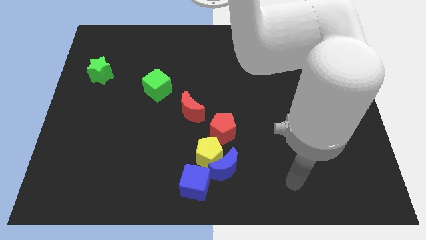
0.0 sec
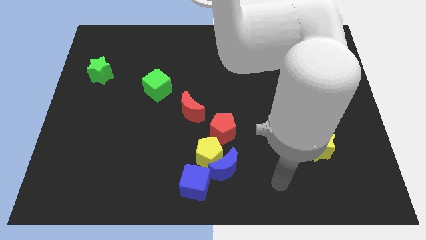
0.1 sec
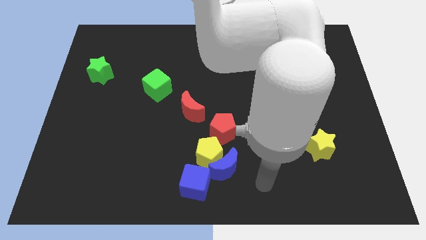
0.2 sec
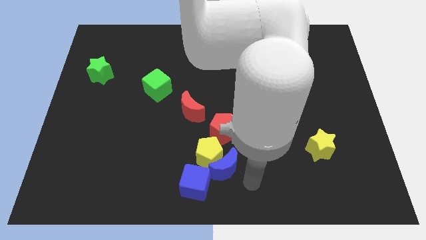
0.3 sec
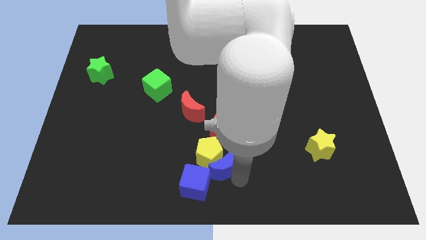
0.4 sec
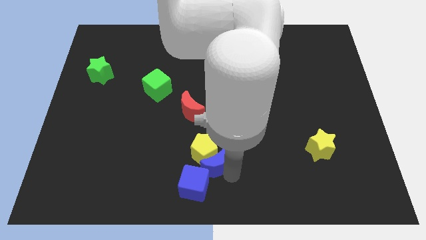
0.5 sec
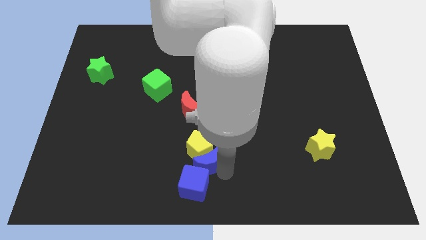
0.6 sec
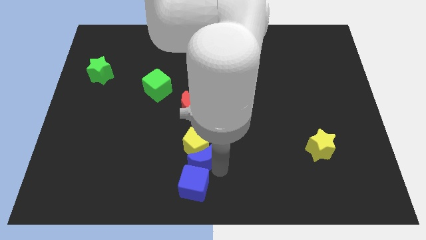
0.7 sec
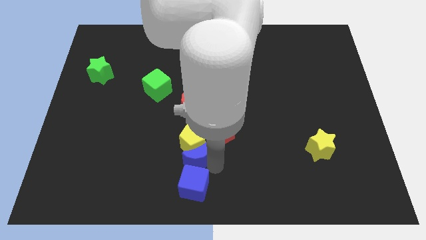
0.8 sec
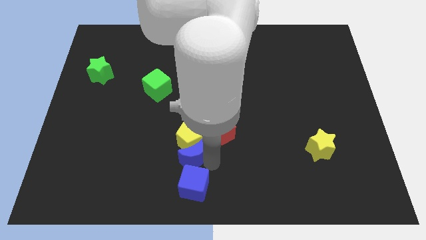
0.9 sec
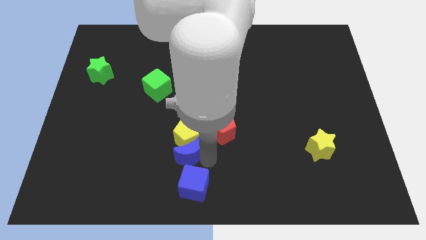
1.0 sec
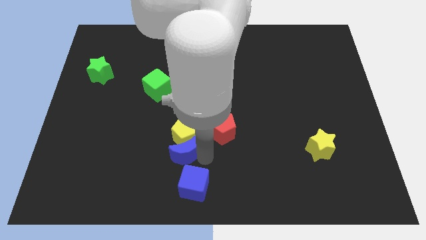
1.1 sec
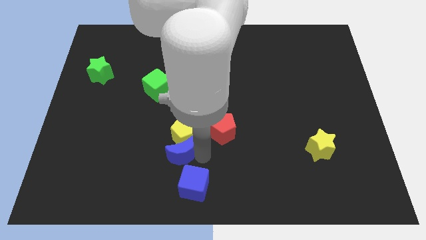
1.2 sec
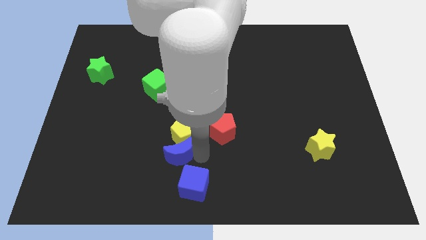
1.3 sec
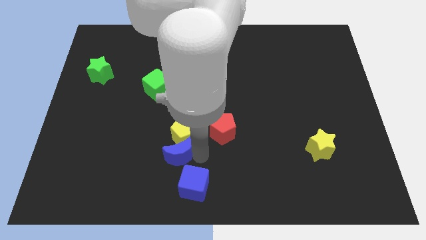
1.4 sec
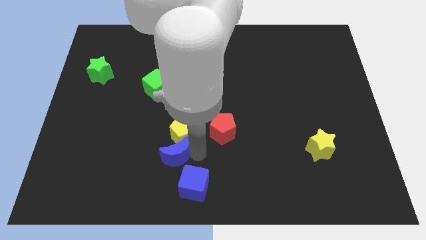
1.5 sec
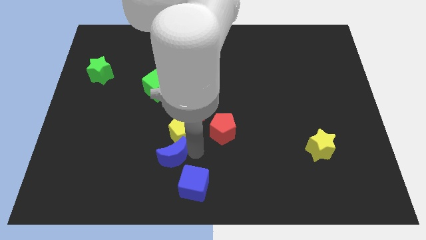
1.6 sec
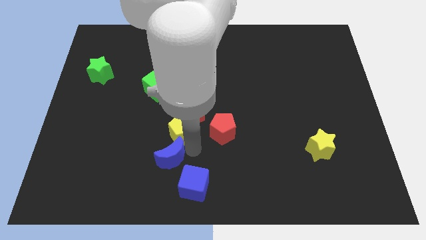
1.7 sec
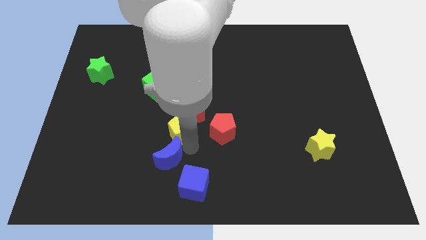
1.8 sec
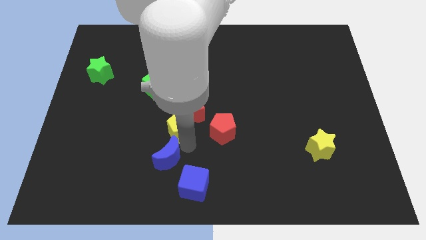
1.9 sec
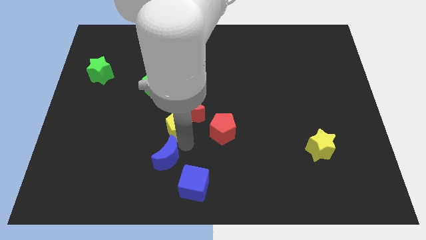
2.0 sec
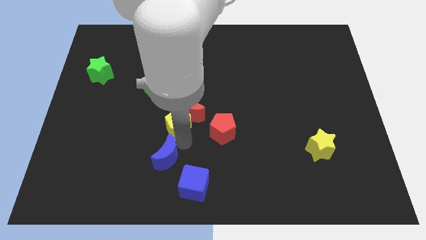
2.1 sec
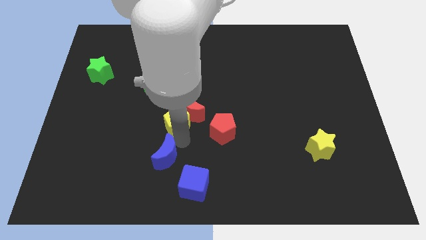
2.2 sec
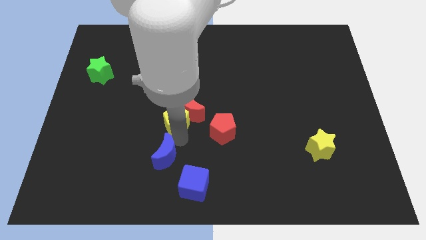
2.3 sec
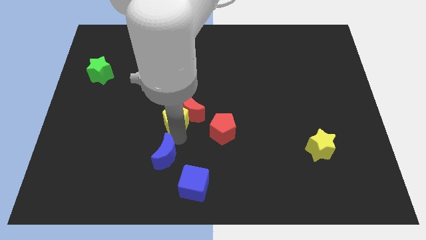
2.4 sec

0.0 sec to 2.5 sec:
move the yellow pentagon away from the group of blocks

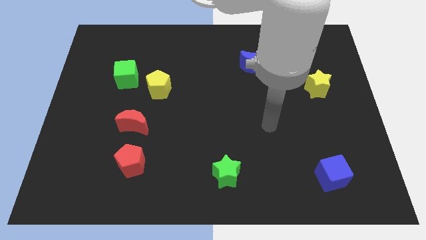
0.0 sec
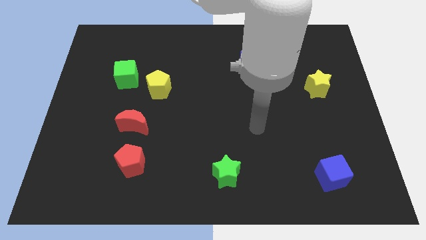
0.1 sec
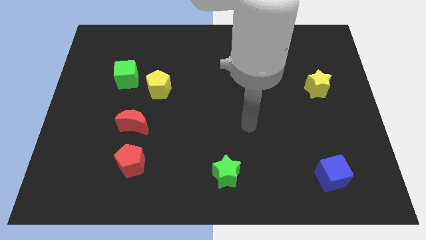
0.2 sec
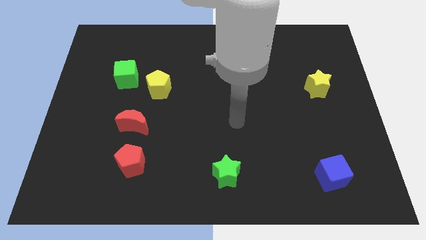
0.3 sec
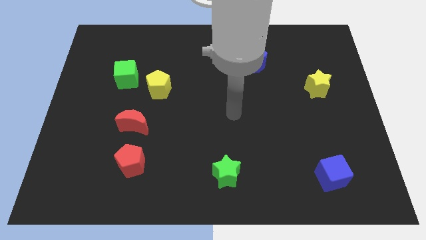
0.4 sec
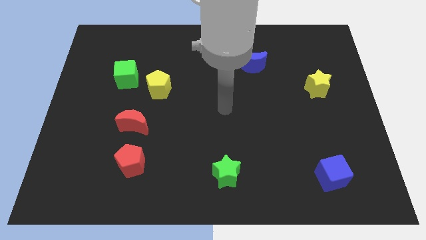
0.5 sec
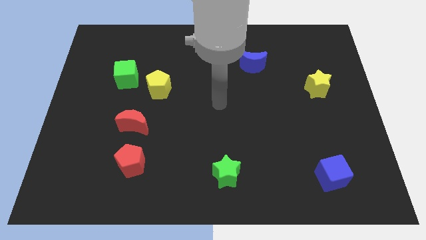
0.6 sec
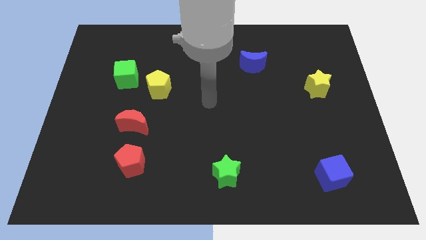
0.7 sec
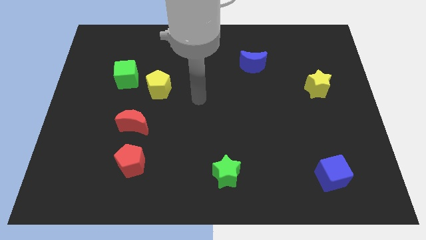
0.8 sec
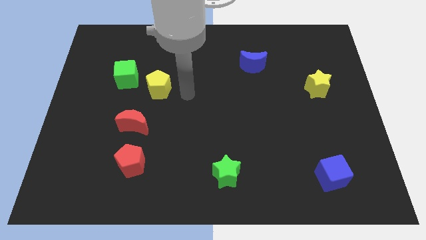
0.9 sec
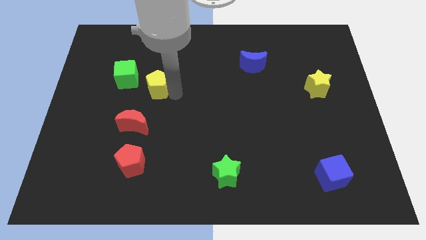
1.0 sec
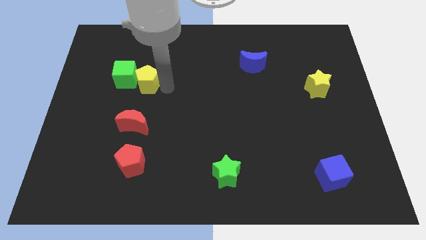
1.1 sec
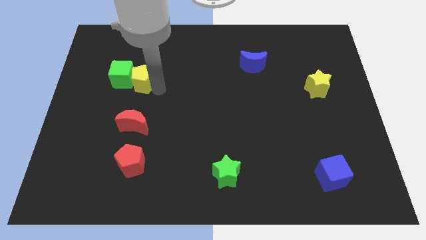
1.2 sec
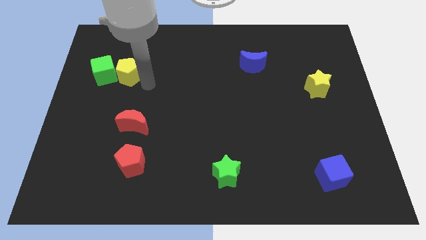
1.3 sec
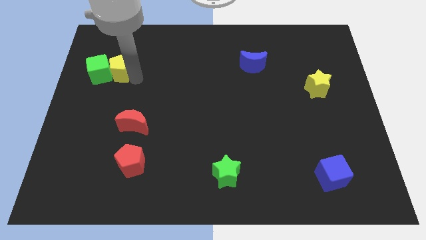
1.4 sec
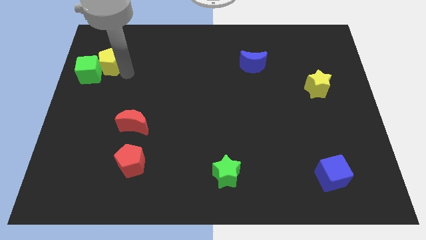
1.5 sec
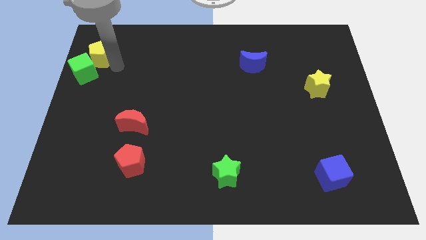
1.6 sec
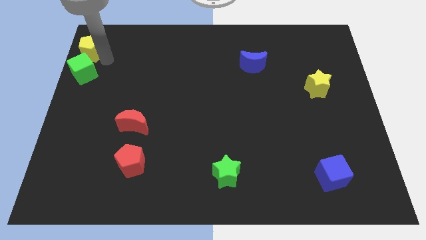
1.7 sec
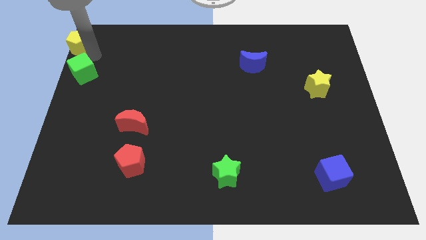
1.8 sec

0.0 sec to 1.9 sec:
separate the green cube from the yellow pentagon

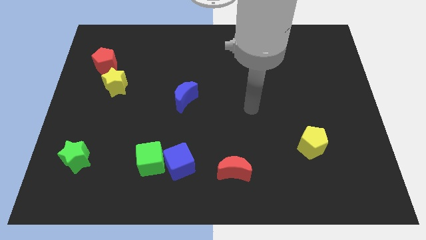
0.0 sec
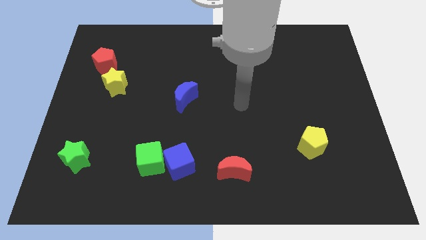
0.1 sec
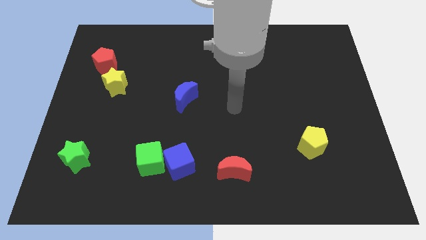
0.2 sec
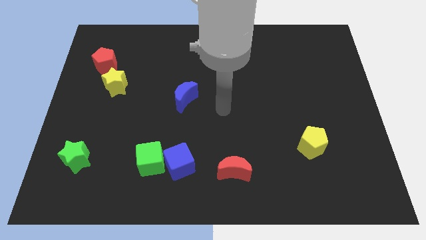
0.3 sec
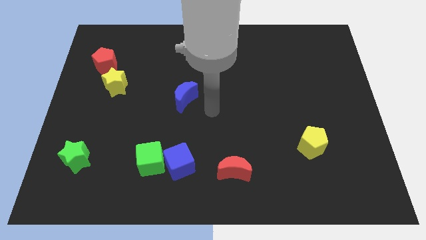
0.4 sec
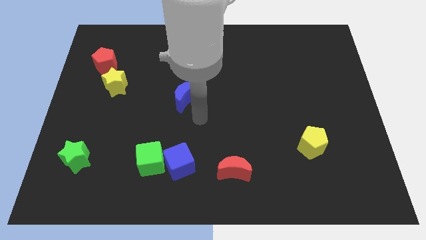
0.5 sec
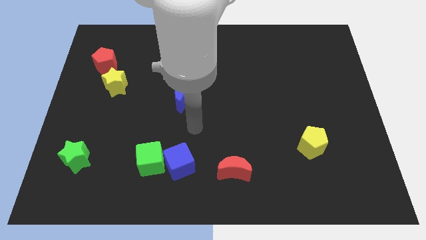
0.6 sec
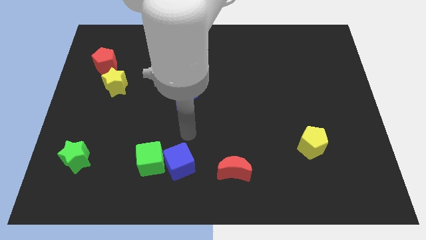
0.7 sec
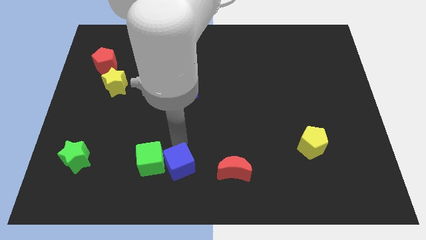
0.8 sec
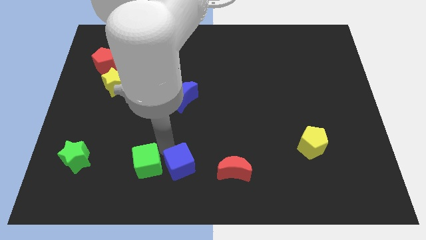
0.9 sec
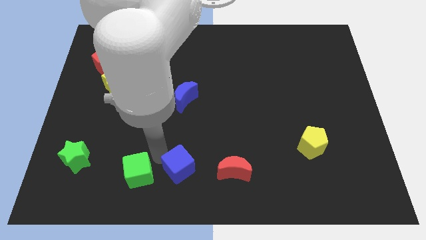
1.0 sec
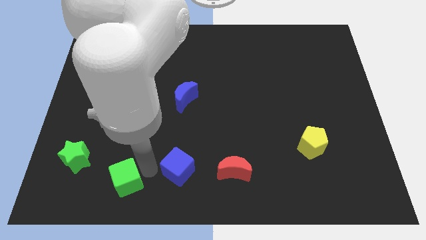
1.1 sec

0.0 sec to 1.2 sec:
move the blue cube away from the green cube

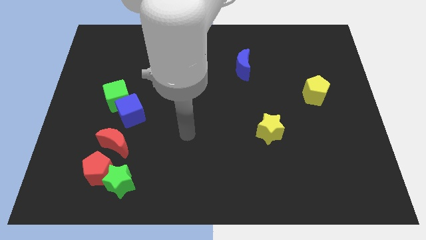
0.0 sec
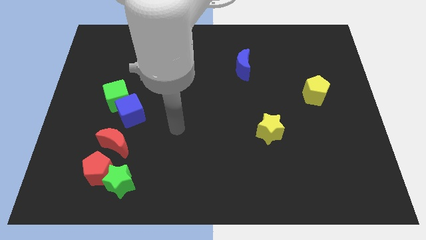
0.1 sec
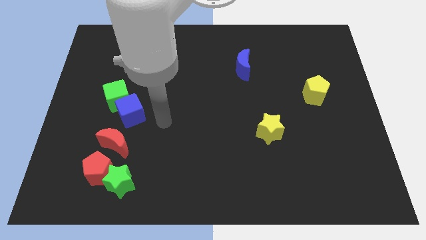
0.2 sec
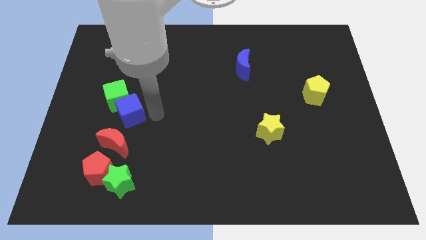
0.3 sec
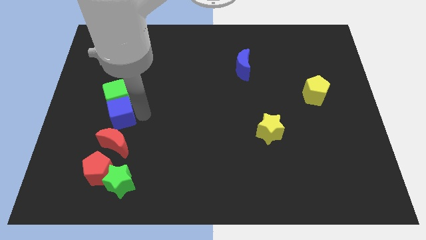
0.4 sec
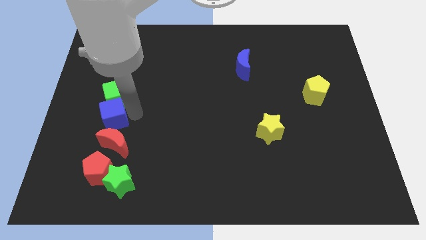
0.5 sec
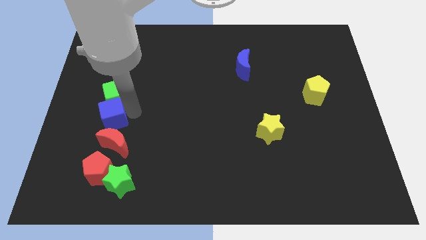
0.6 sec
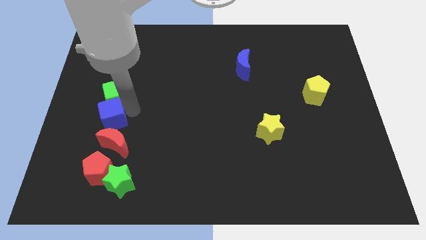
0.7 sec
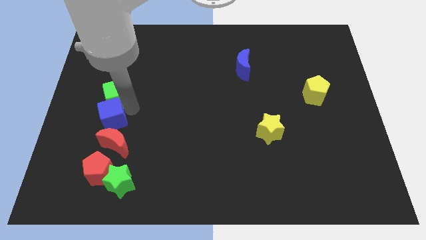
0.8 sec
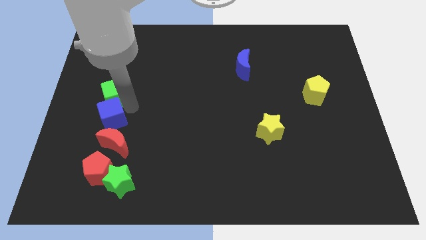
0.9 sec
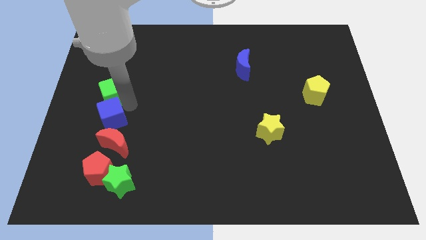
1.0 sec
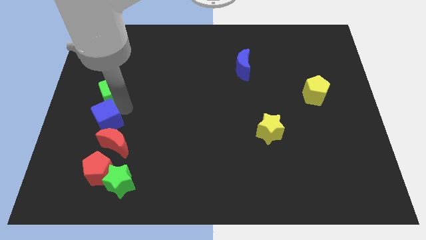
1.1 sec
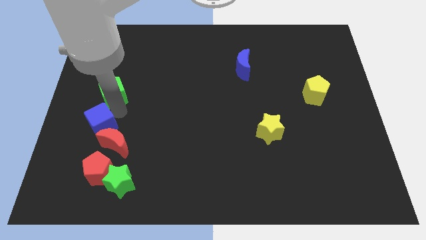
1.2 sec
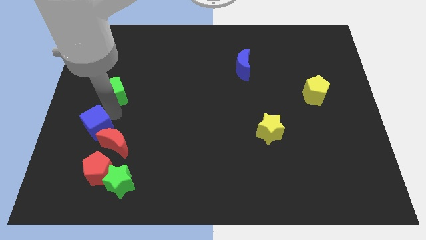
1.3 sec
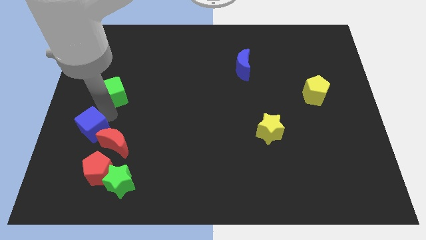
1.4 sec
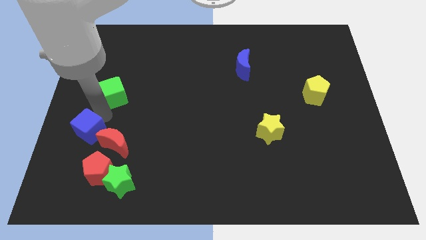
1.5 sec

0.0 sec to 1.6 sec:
separate the green cube from the blue cube

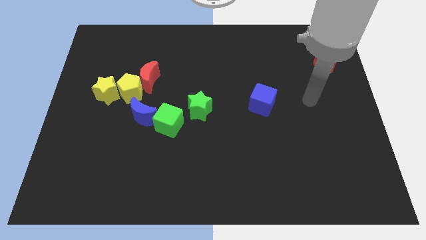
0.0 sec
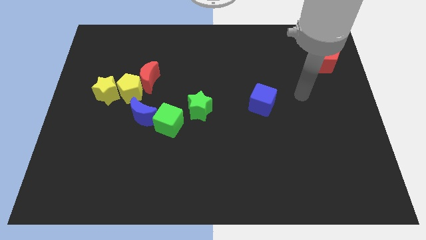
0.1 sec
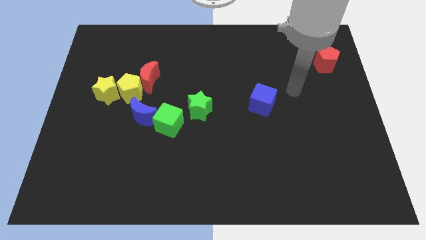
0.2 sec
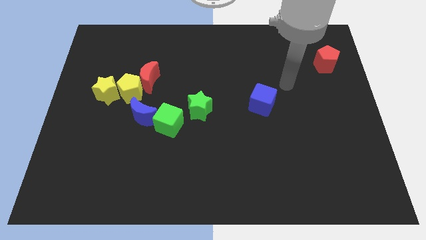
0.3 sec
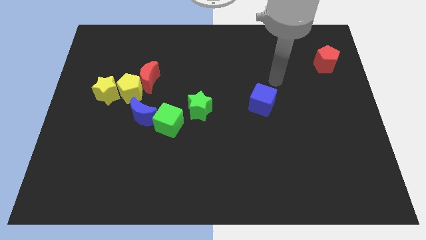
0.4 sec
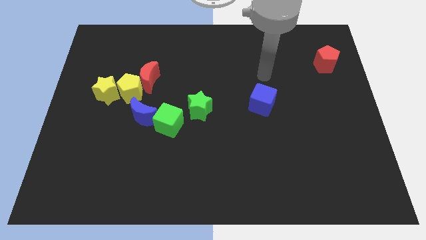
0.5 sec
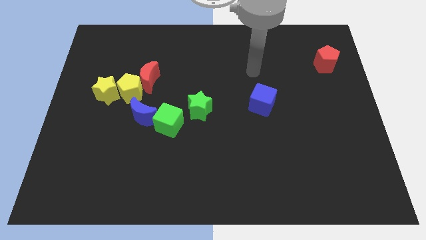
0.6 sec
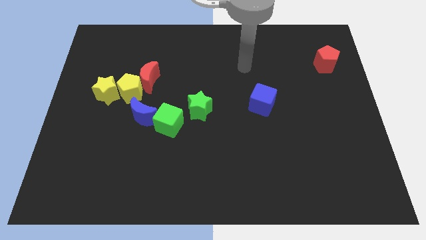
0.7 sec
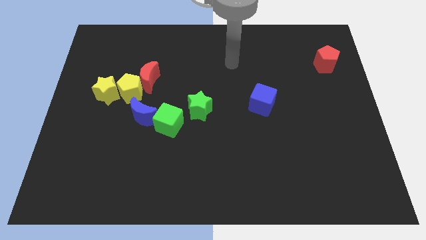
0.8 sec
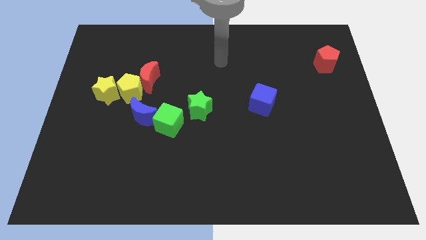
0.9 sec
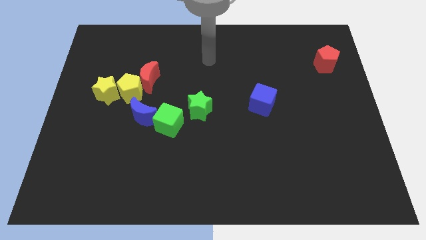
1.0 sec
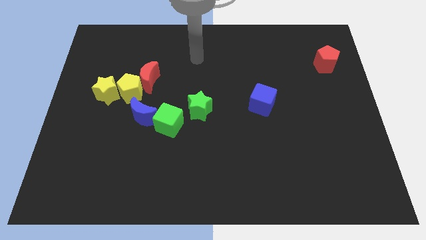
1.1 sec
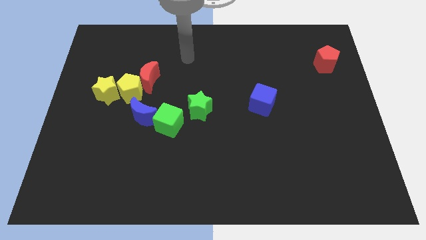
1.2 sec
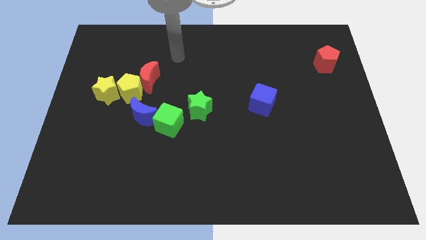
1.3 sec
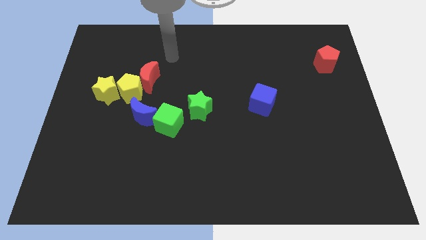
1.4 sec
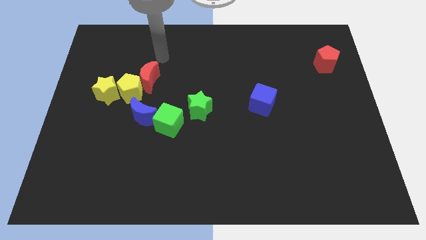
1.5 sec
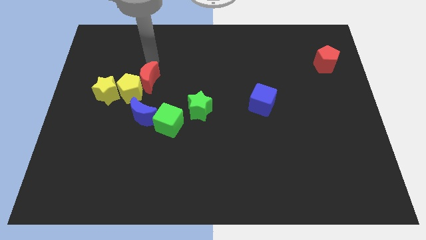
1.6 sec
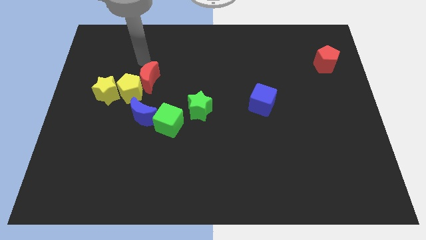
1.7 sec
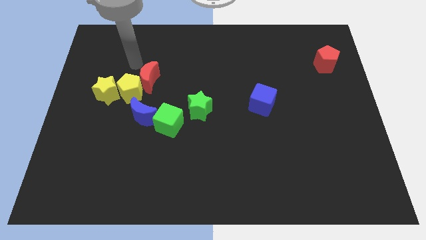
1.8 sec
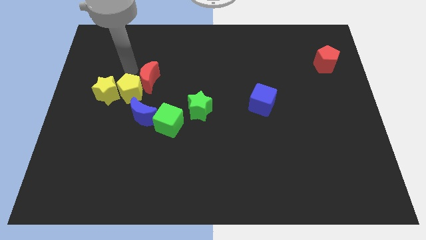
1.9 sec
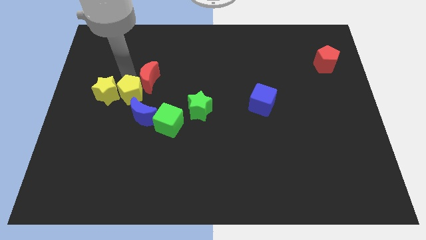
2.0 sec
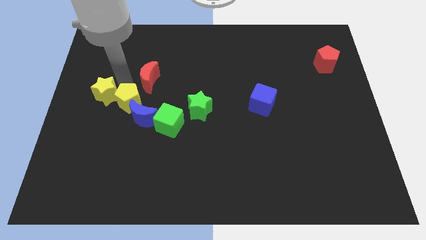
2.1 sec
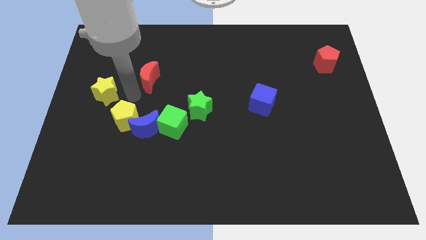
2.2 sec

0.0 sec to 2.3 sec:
move the red moon away from the yellow pentagon
